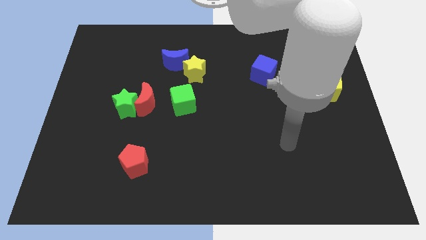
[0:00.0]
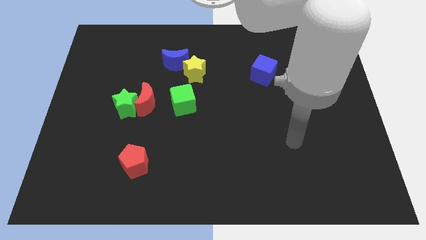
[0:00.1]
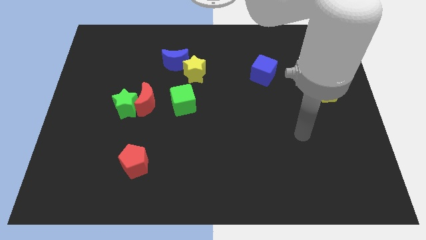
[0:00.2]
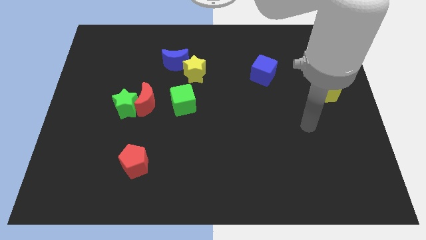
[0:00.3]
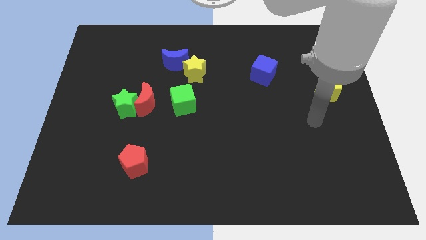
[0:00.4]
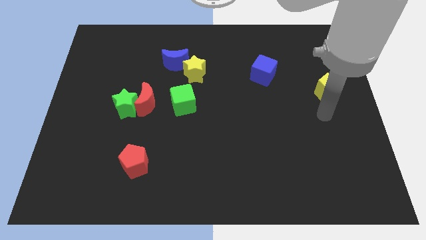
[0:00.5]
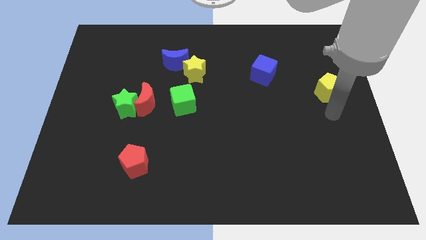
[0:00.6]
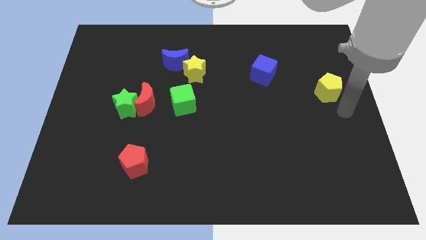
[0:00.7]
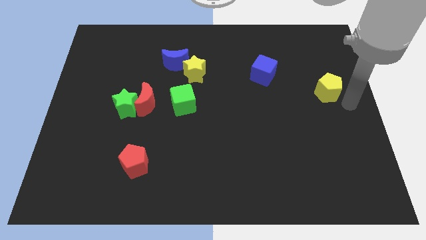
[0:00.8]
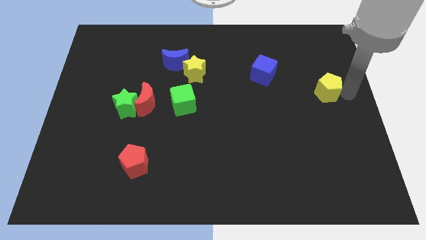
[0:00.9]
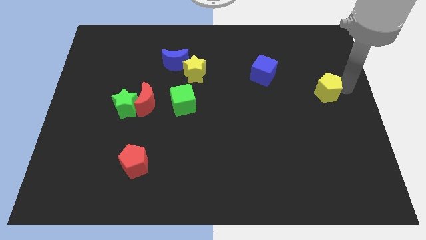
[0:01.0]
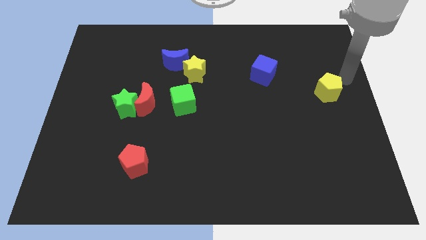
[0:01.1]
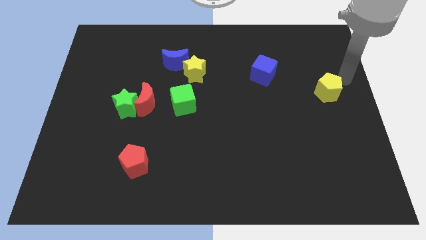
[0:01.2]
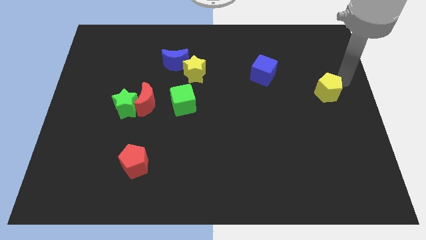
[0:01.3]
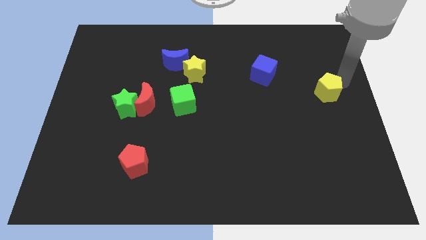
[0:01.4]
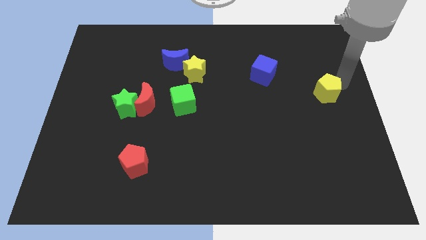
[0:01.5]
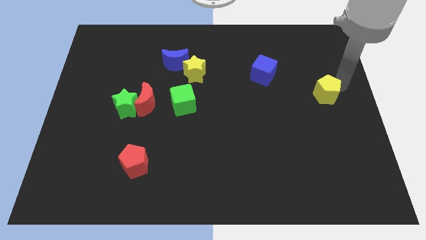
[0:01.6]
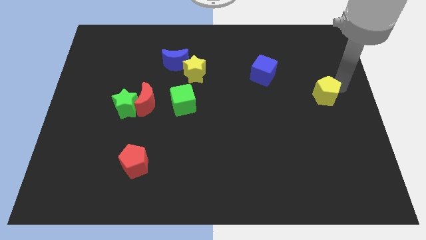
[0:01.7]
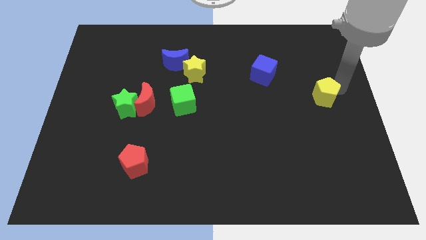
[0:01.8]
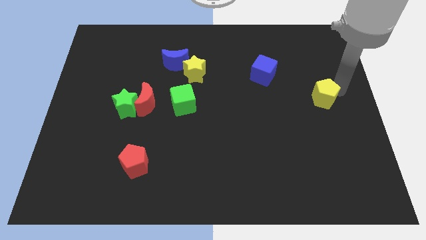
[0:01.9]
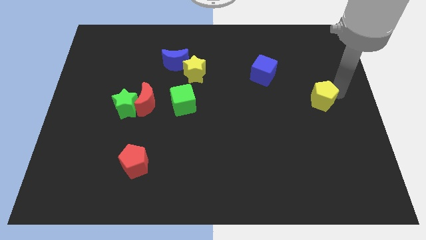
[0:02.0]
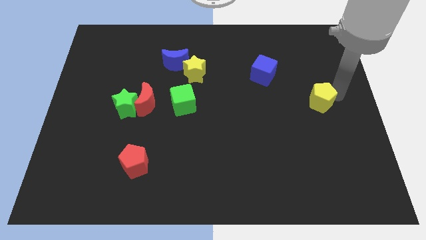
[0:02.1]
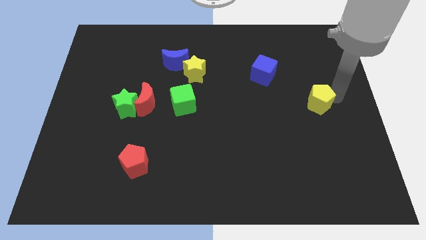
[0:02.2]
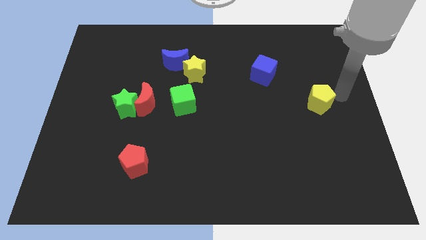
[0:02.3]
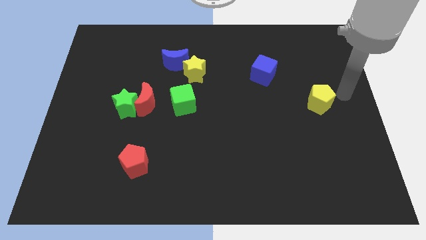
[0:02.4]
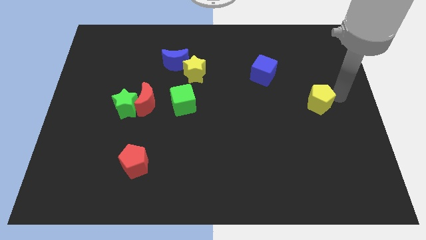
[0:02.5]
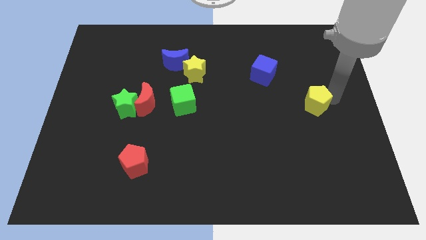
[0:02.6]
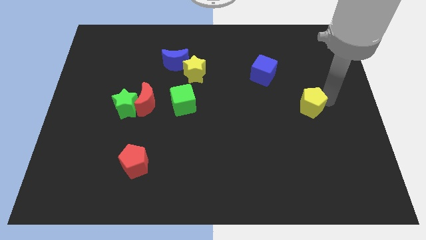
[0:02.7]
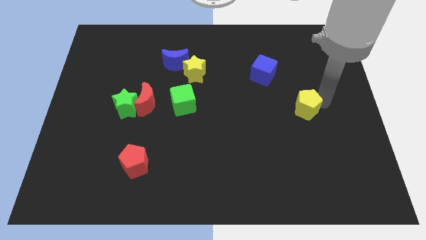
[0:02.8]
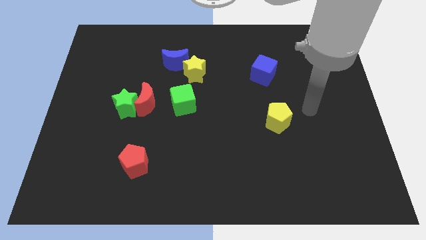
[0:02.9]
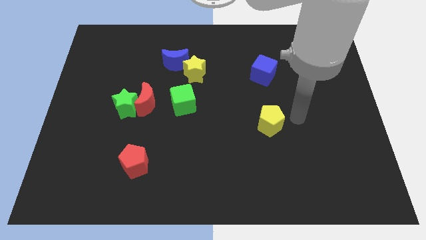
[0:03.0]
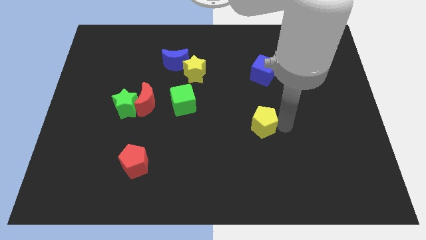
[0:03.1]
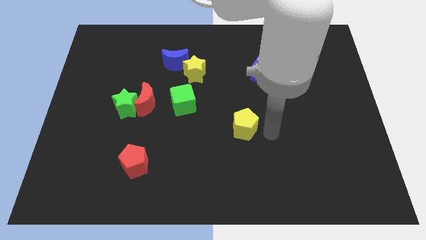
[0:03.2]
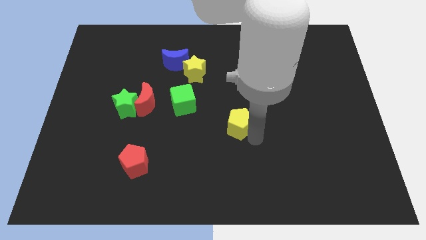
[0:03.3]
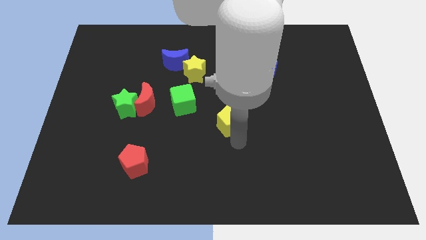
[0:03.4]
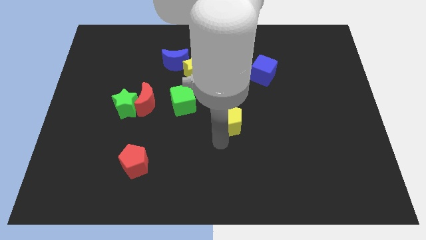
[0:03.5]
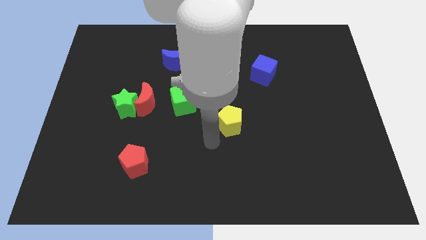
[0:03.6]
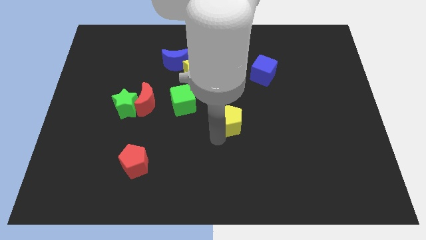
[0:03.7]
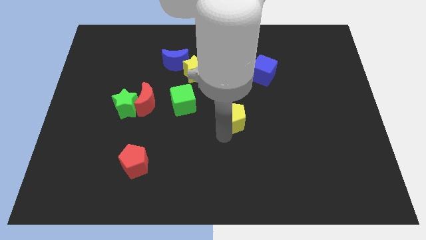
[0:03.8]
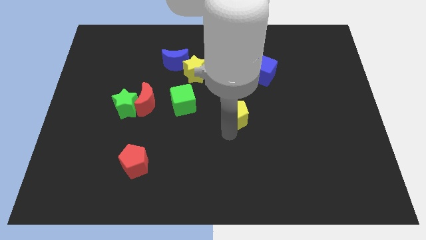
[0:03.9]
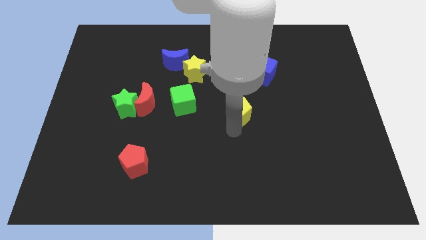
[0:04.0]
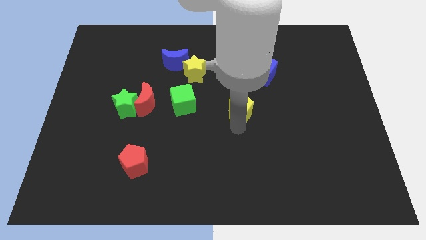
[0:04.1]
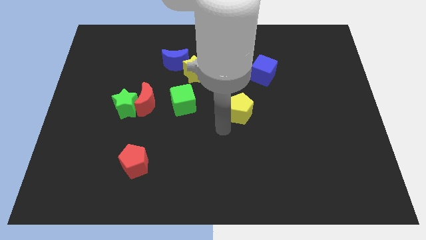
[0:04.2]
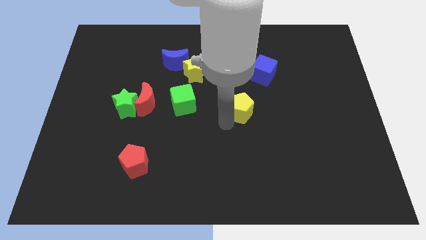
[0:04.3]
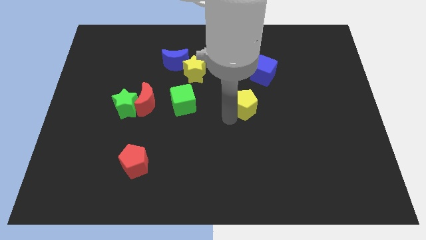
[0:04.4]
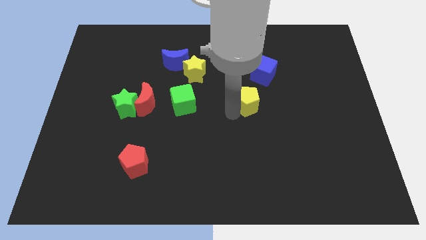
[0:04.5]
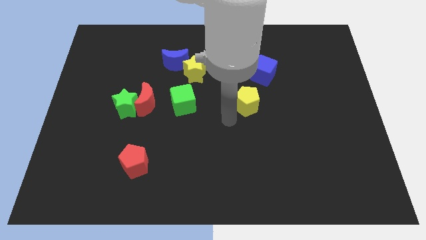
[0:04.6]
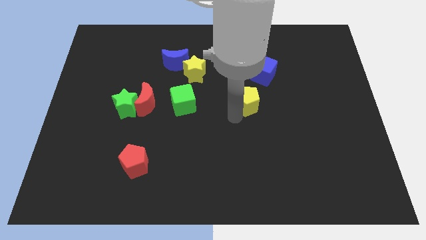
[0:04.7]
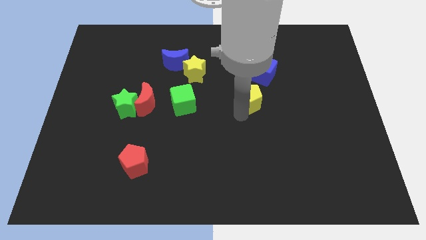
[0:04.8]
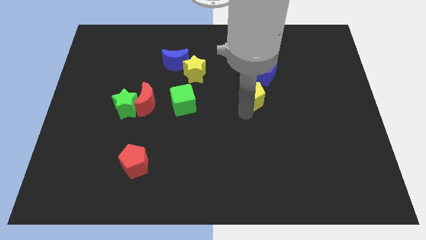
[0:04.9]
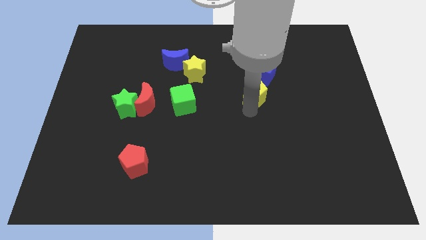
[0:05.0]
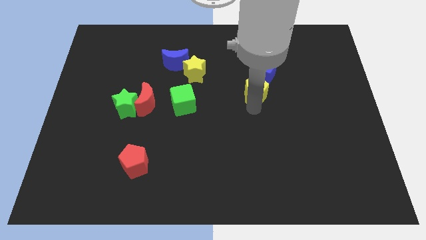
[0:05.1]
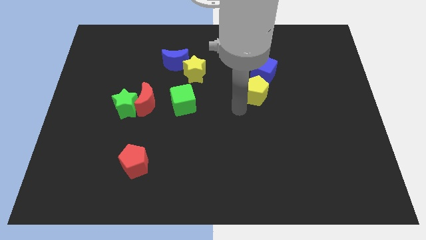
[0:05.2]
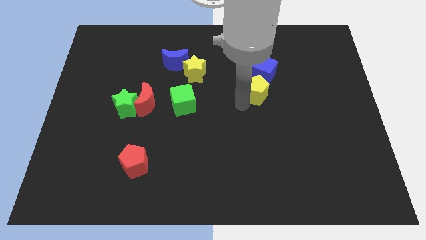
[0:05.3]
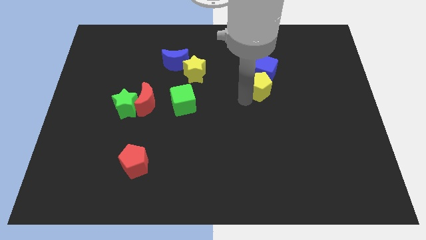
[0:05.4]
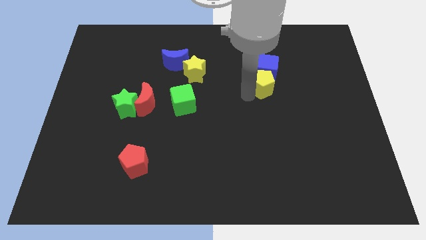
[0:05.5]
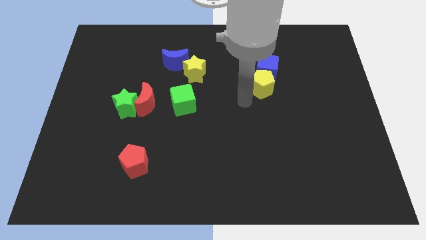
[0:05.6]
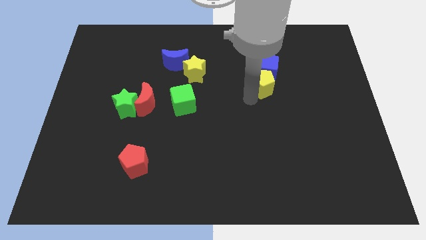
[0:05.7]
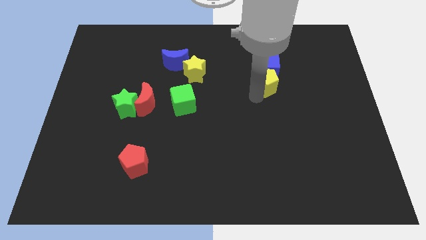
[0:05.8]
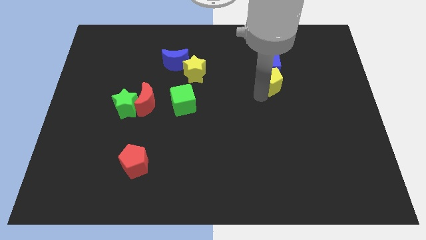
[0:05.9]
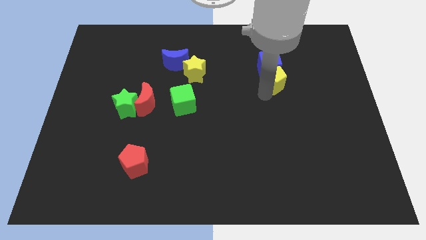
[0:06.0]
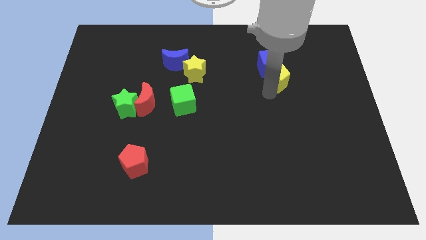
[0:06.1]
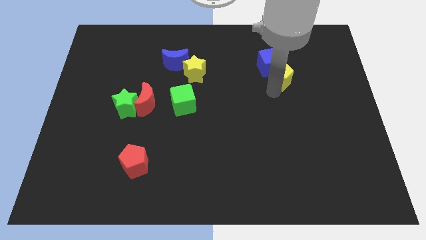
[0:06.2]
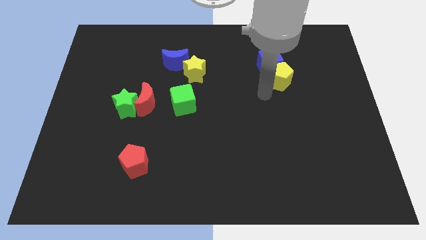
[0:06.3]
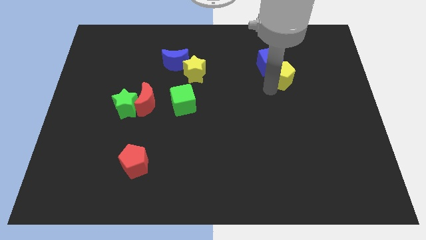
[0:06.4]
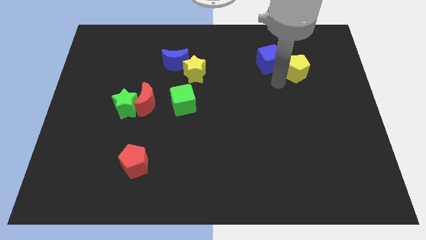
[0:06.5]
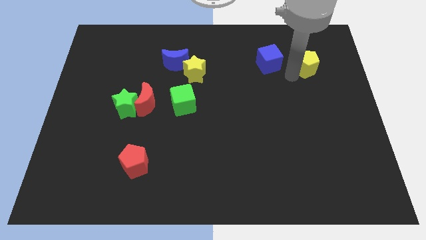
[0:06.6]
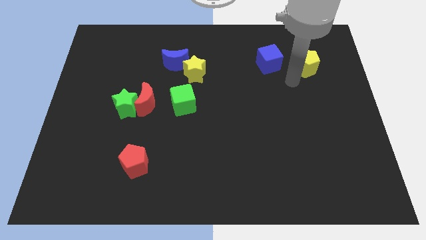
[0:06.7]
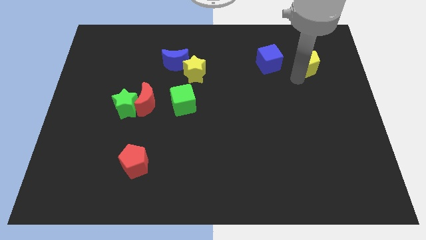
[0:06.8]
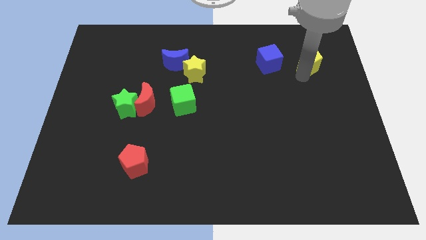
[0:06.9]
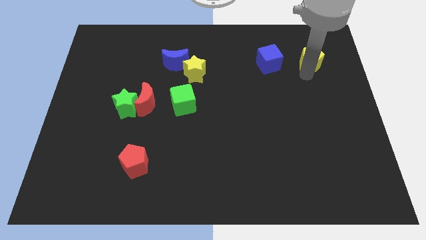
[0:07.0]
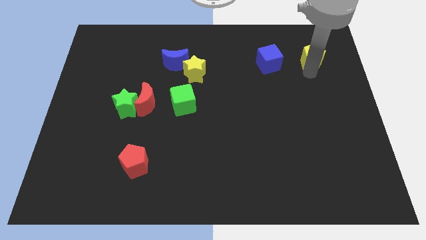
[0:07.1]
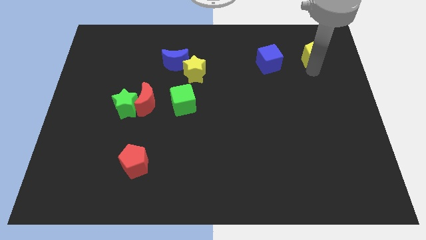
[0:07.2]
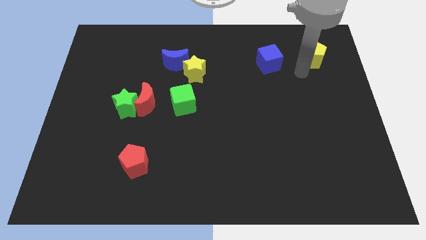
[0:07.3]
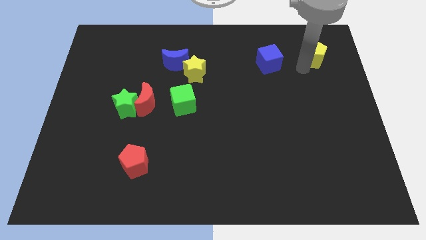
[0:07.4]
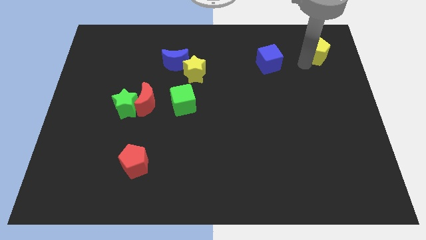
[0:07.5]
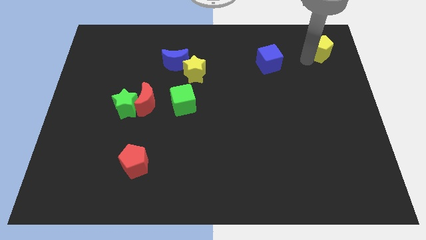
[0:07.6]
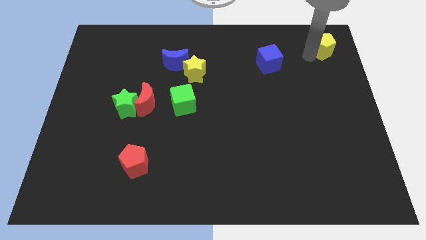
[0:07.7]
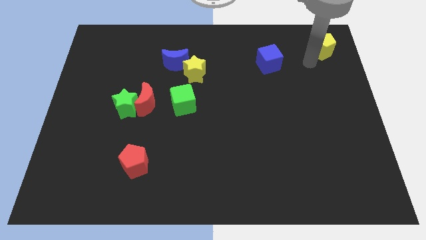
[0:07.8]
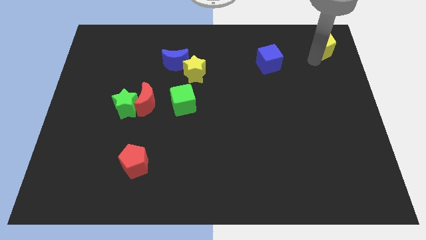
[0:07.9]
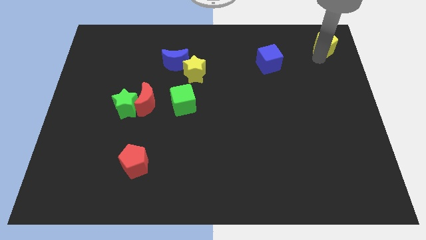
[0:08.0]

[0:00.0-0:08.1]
put the yellow pentagon to the top right of the board
